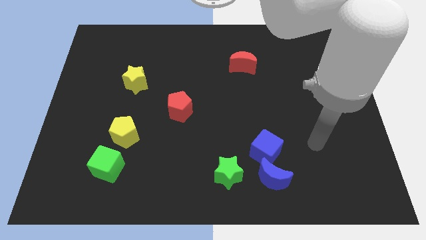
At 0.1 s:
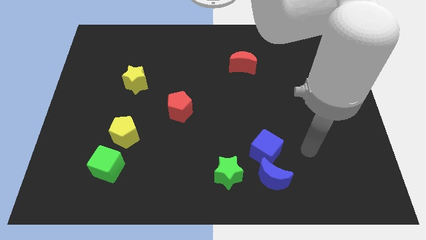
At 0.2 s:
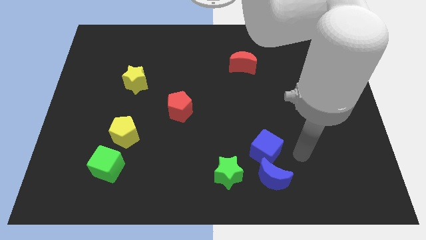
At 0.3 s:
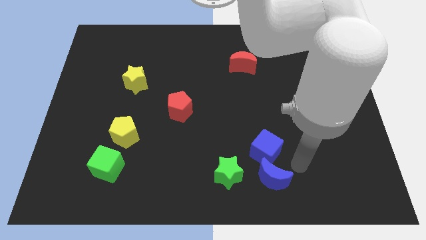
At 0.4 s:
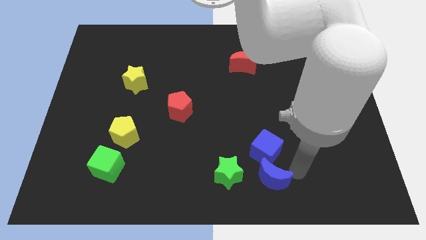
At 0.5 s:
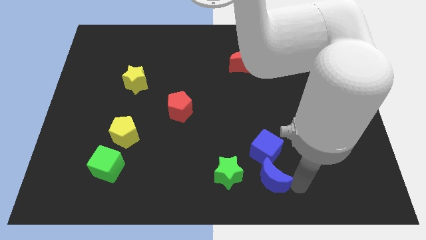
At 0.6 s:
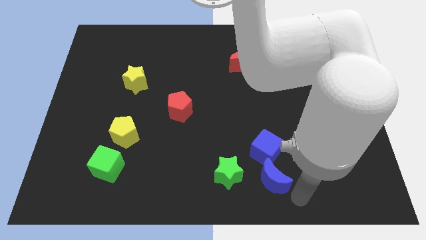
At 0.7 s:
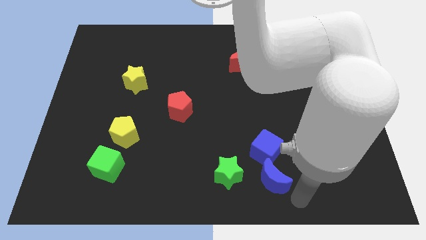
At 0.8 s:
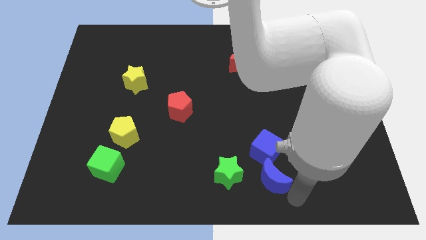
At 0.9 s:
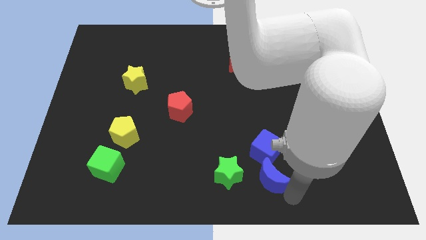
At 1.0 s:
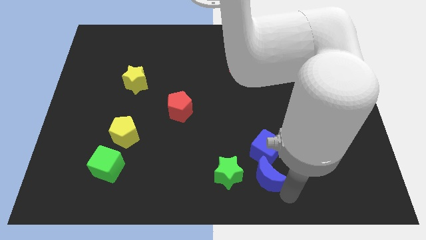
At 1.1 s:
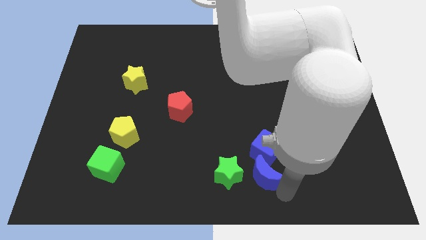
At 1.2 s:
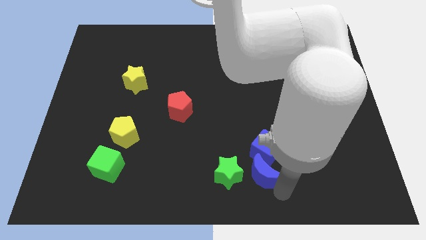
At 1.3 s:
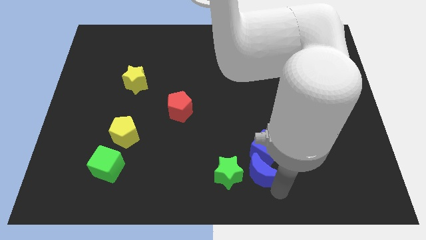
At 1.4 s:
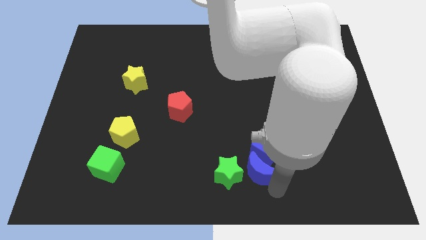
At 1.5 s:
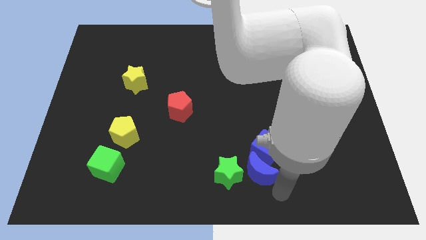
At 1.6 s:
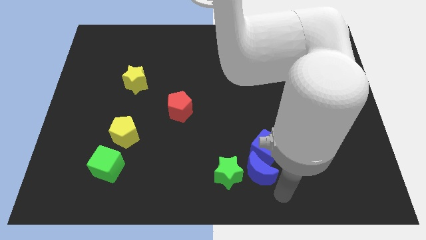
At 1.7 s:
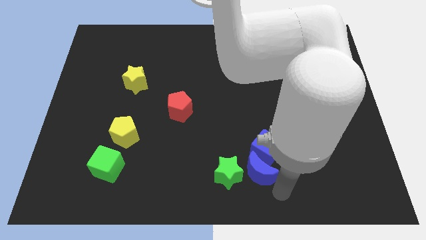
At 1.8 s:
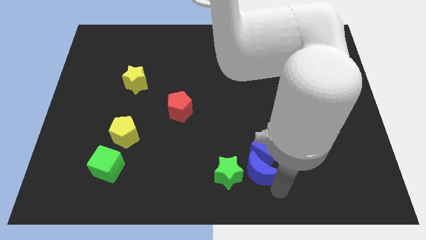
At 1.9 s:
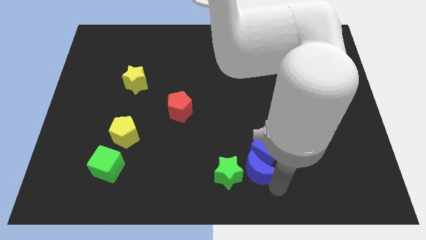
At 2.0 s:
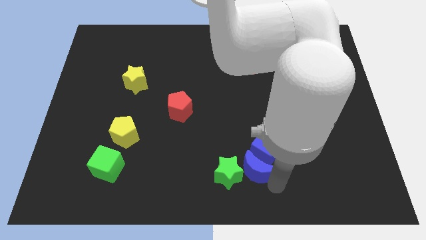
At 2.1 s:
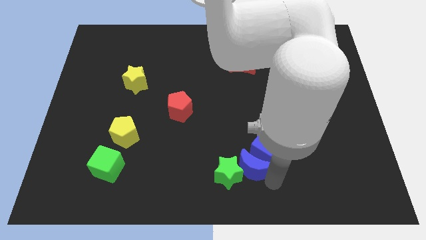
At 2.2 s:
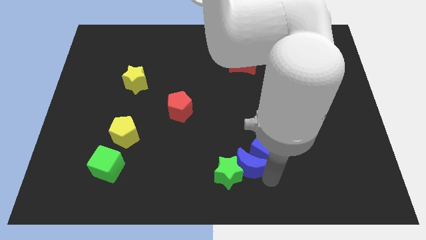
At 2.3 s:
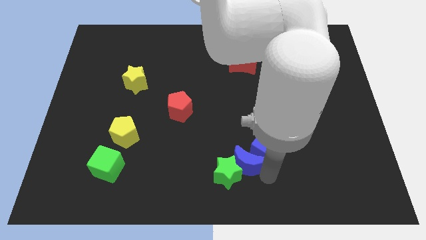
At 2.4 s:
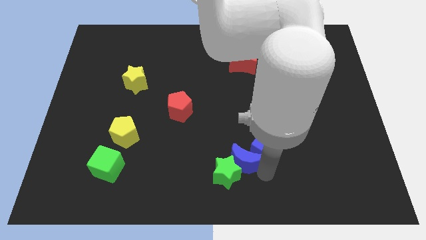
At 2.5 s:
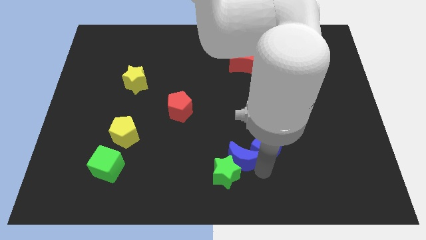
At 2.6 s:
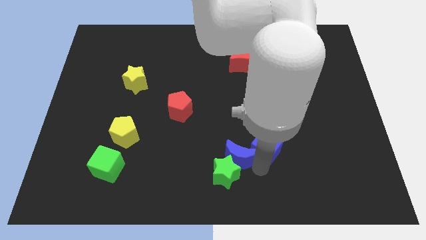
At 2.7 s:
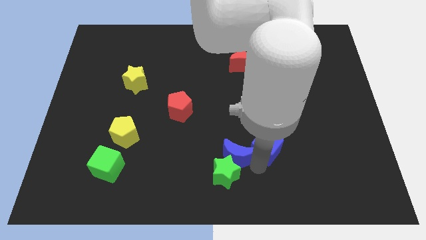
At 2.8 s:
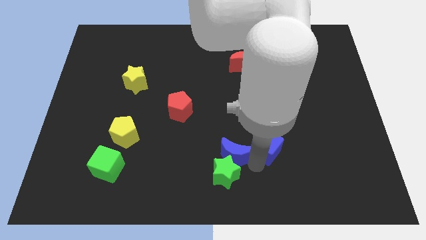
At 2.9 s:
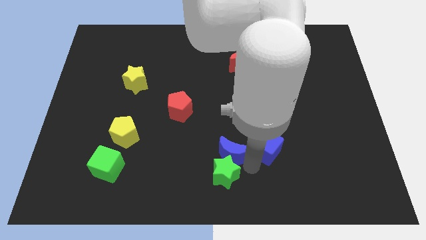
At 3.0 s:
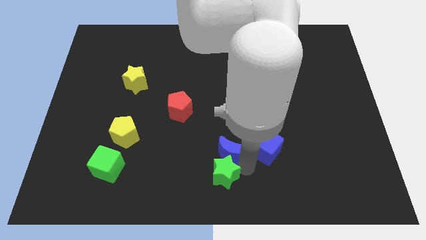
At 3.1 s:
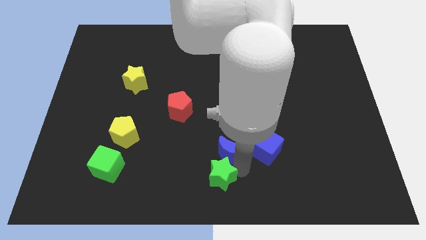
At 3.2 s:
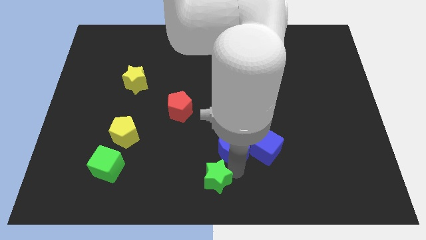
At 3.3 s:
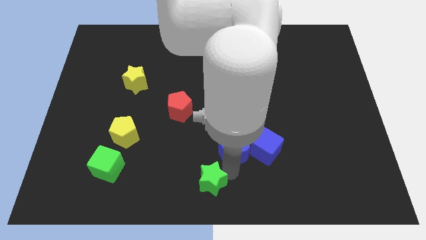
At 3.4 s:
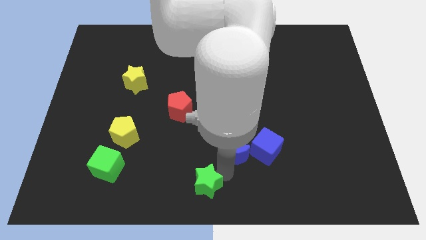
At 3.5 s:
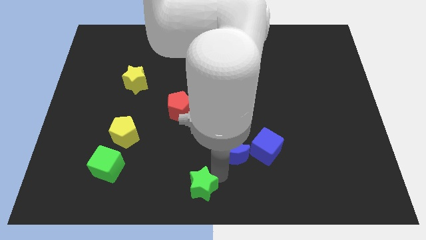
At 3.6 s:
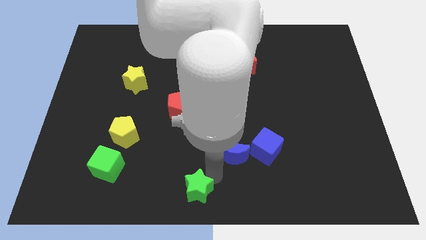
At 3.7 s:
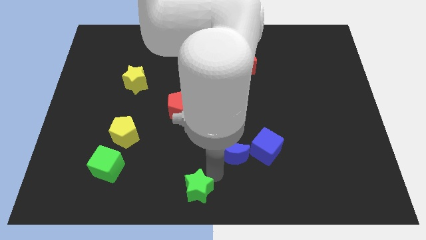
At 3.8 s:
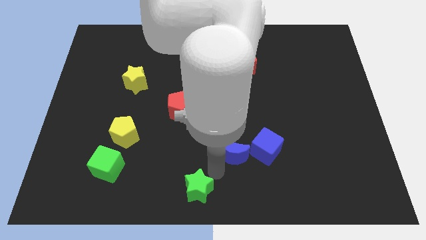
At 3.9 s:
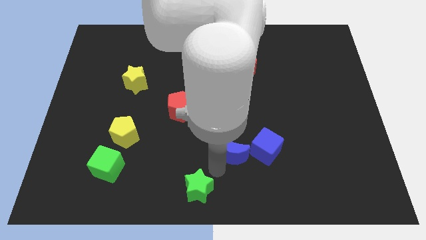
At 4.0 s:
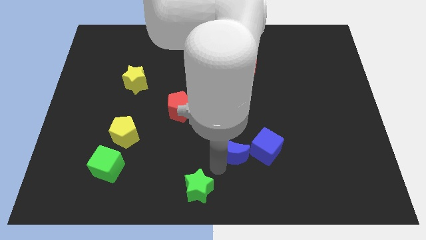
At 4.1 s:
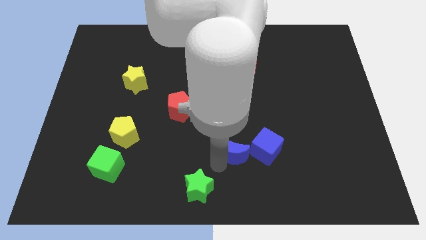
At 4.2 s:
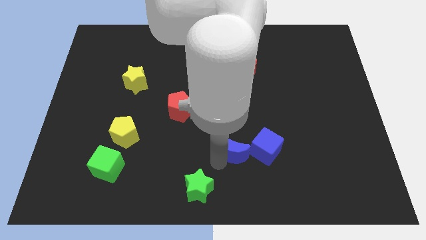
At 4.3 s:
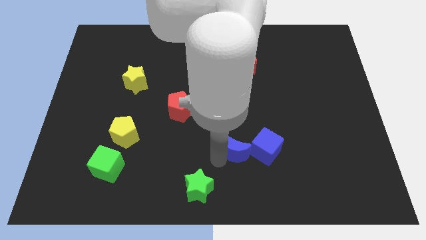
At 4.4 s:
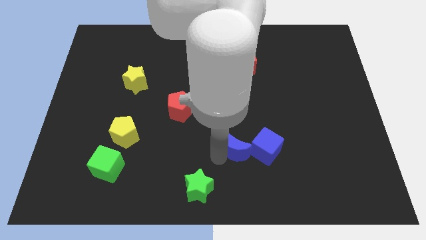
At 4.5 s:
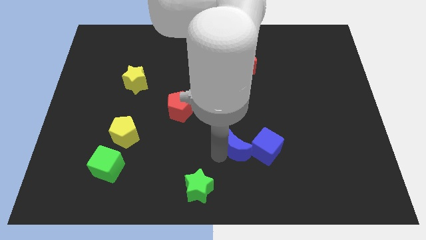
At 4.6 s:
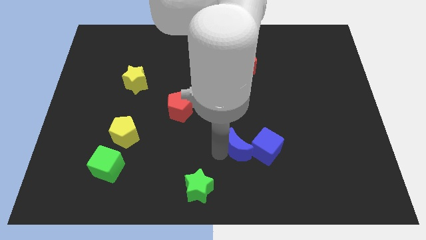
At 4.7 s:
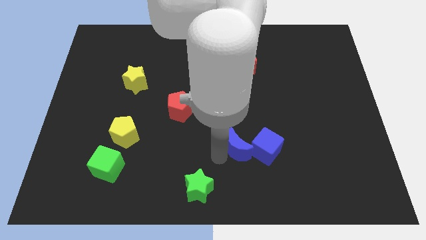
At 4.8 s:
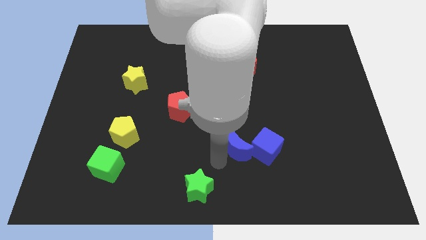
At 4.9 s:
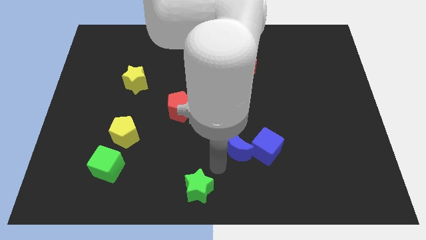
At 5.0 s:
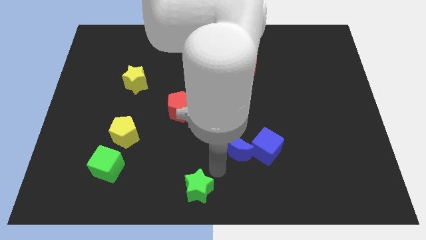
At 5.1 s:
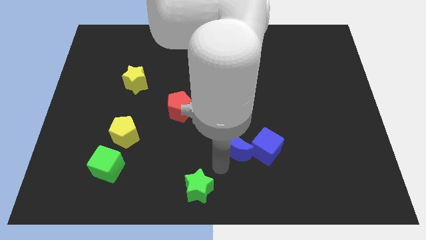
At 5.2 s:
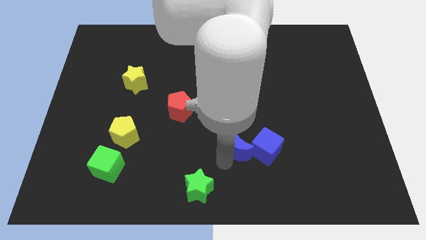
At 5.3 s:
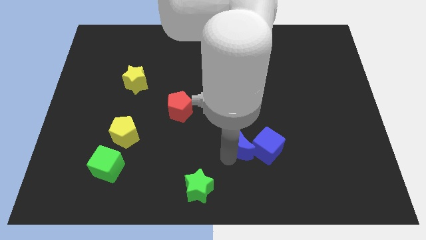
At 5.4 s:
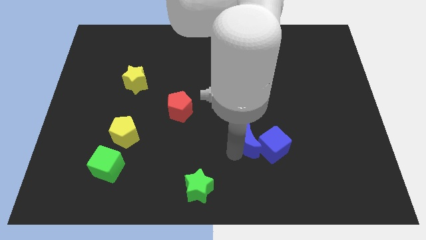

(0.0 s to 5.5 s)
move the blue moon up somewhat

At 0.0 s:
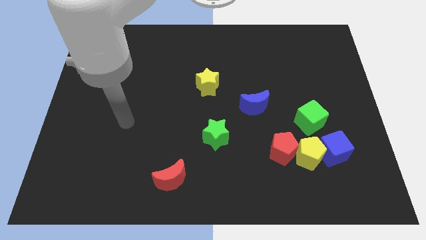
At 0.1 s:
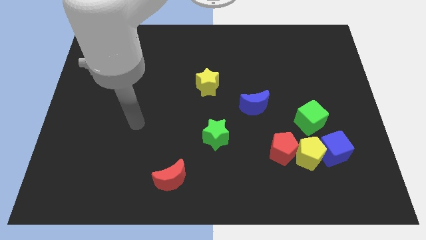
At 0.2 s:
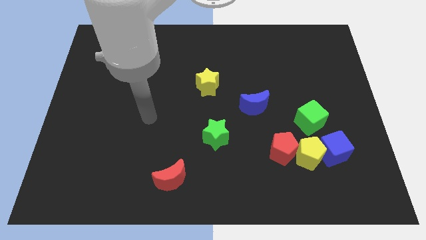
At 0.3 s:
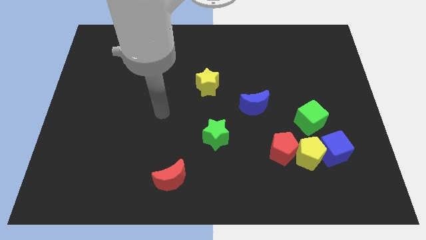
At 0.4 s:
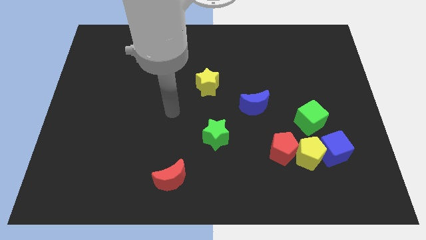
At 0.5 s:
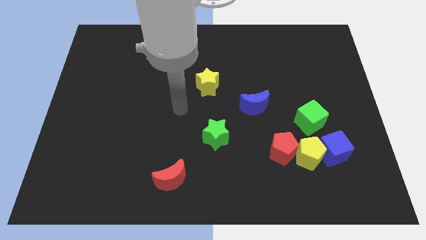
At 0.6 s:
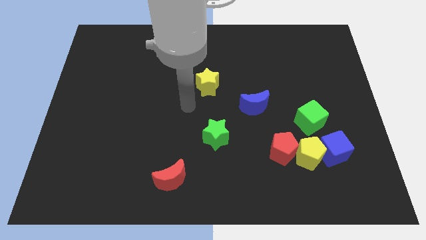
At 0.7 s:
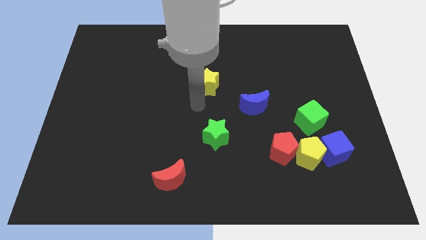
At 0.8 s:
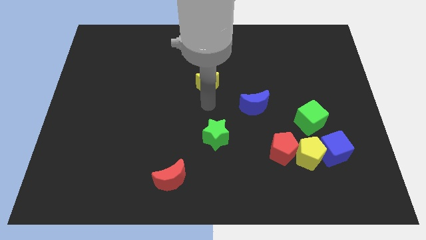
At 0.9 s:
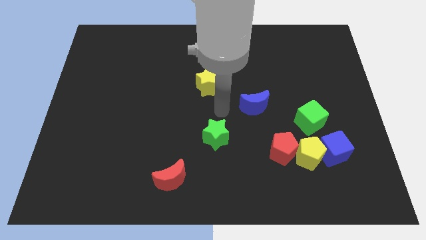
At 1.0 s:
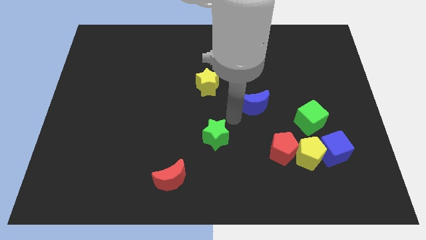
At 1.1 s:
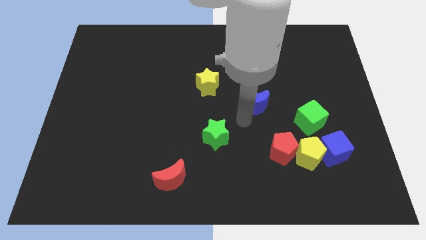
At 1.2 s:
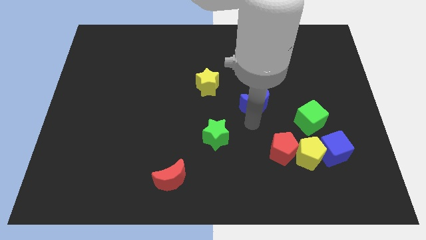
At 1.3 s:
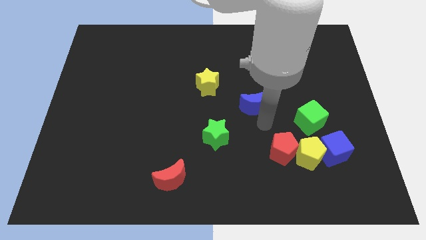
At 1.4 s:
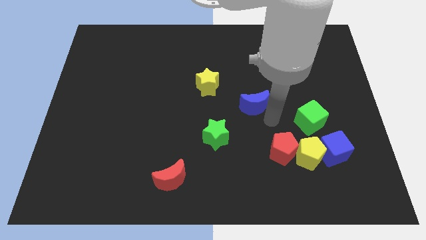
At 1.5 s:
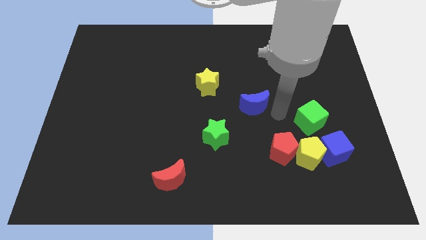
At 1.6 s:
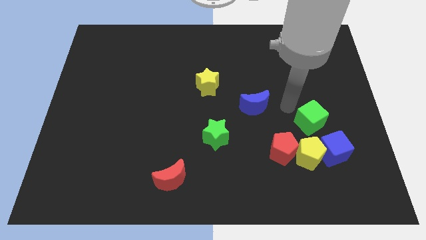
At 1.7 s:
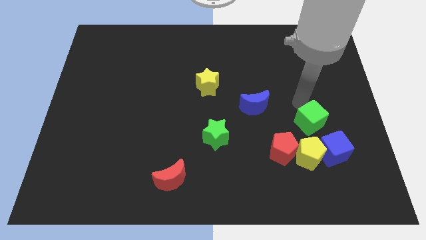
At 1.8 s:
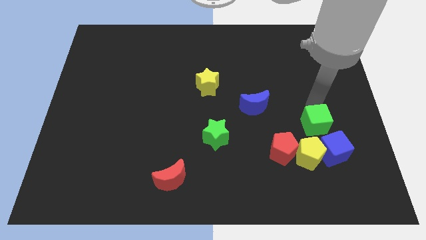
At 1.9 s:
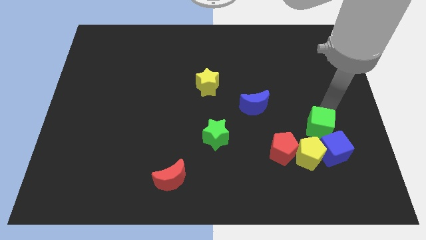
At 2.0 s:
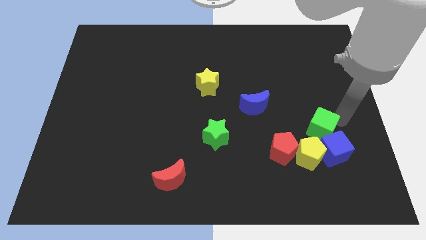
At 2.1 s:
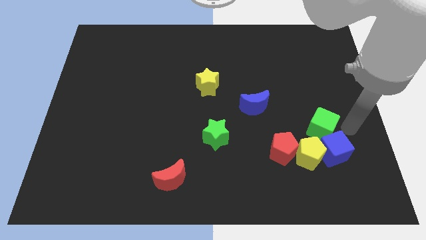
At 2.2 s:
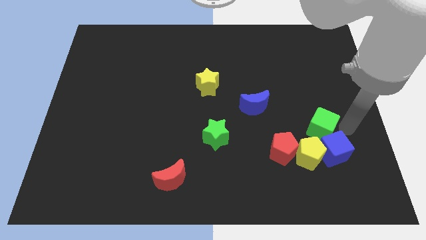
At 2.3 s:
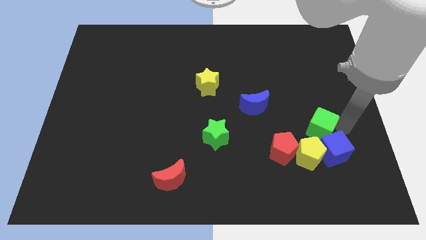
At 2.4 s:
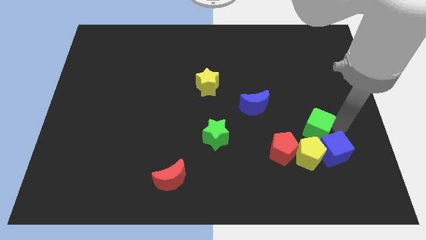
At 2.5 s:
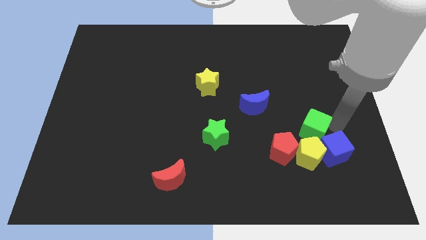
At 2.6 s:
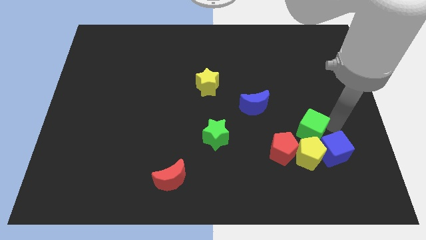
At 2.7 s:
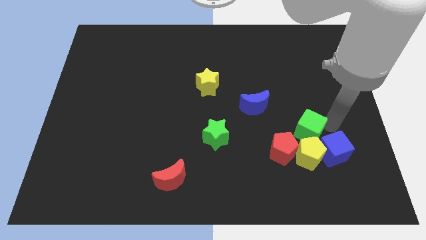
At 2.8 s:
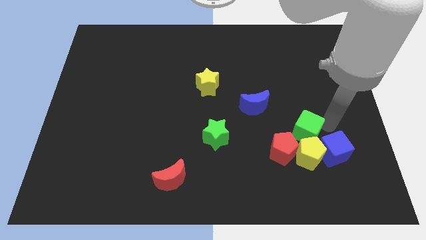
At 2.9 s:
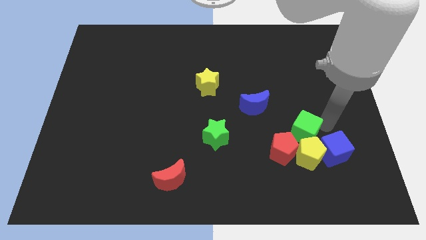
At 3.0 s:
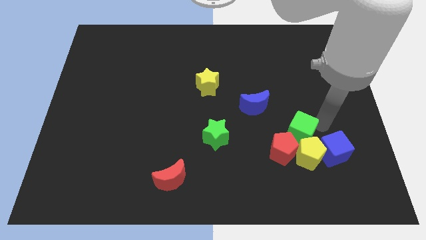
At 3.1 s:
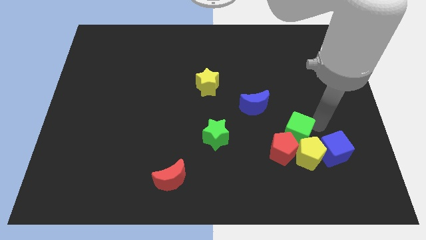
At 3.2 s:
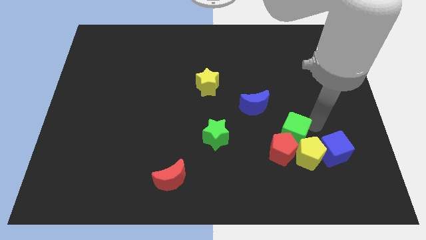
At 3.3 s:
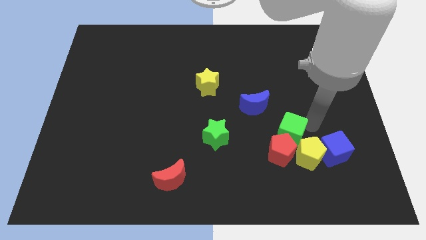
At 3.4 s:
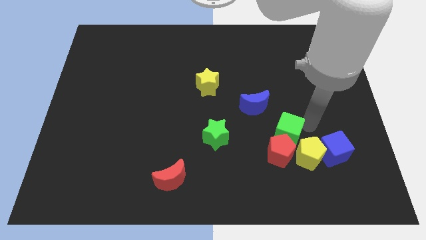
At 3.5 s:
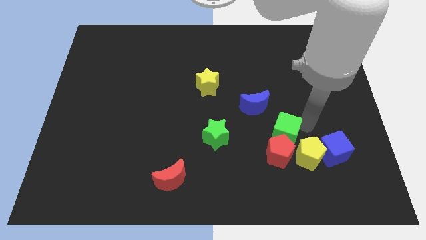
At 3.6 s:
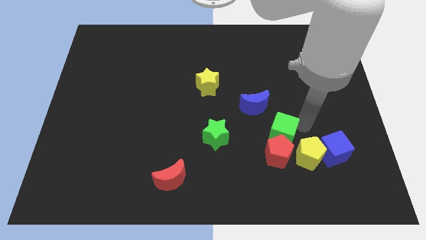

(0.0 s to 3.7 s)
move the green cube somewhat down and left
